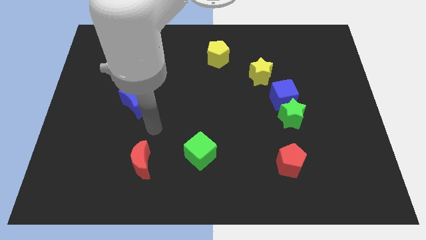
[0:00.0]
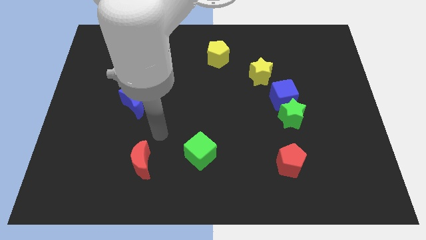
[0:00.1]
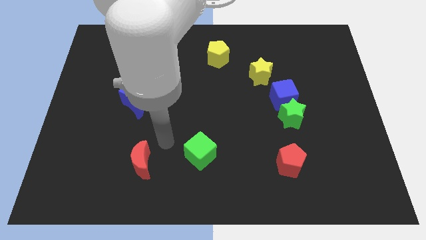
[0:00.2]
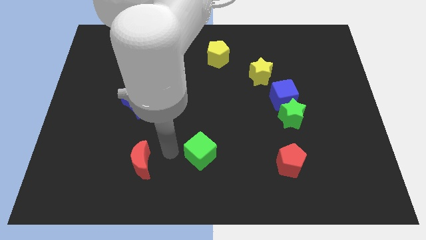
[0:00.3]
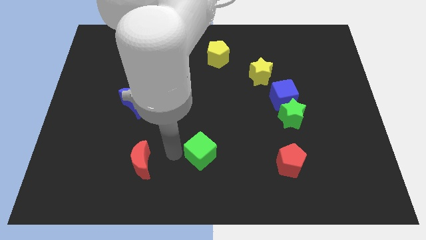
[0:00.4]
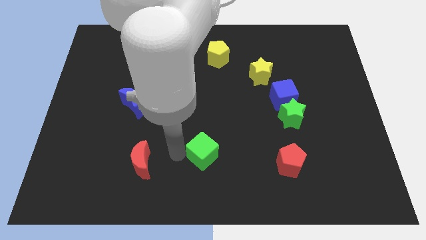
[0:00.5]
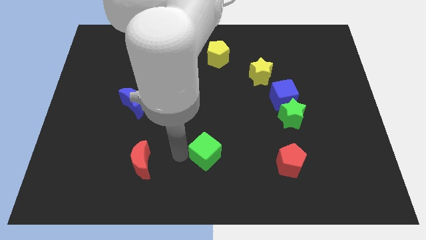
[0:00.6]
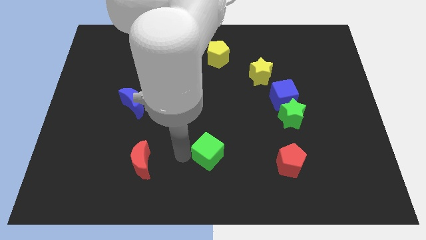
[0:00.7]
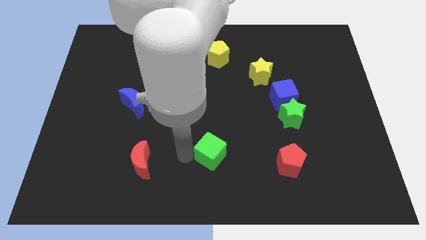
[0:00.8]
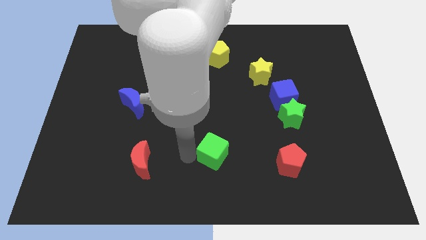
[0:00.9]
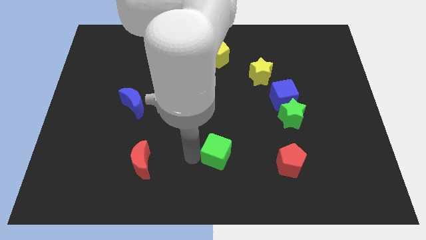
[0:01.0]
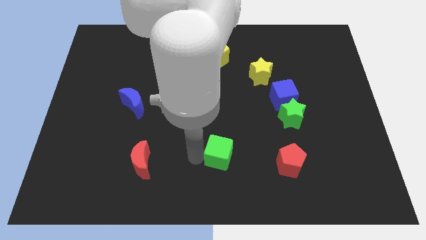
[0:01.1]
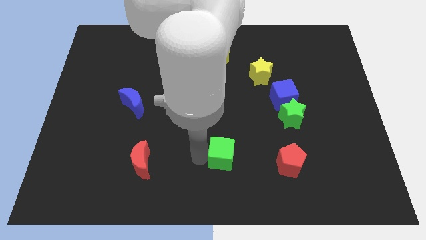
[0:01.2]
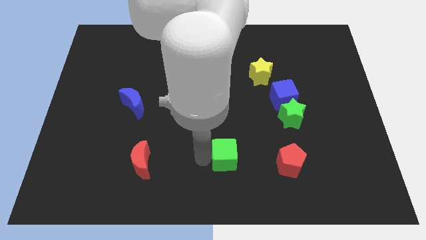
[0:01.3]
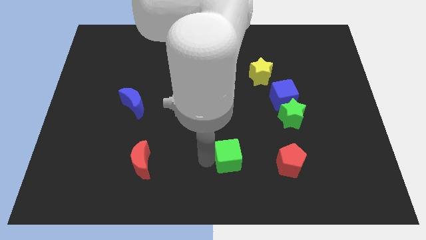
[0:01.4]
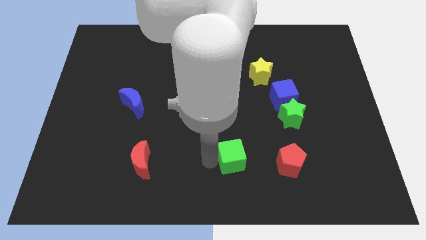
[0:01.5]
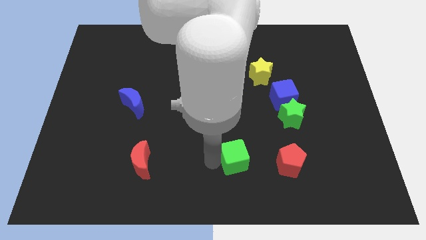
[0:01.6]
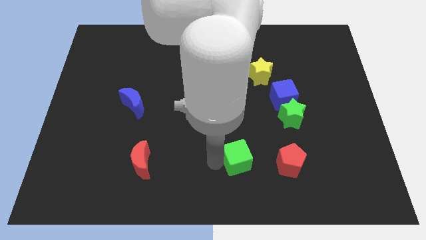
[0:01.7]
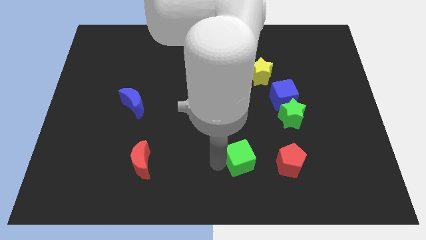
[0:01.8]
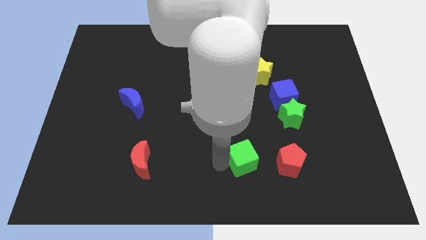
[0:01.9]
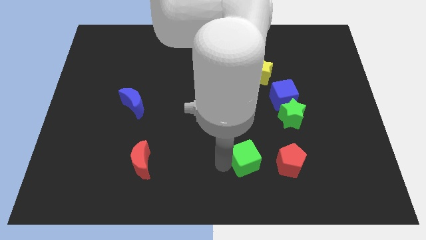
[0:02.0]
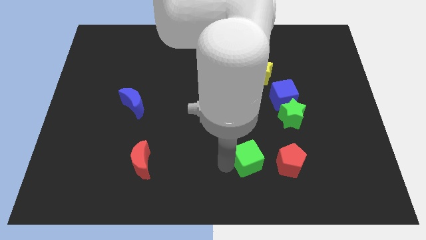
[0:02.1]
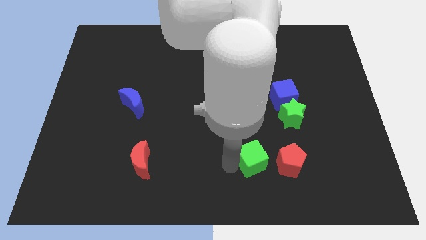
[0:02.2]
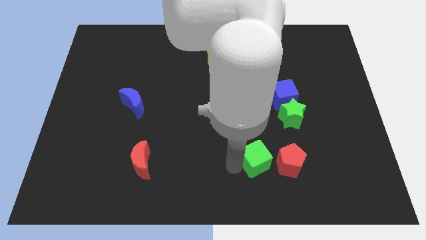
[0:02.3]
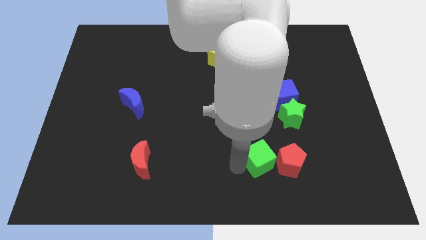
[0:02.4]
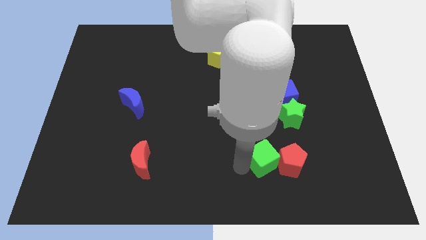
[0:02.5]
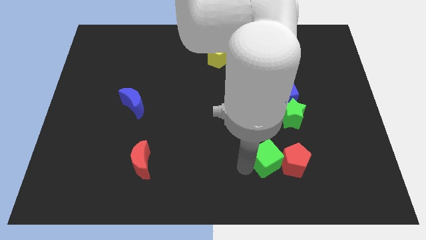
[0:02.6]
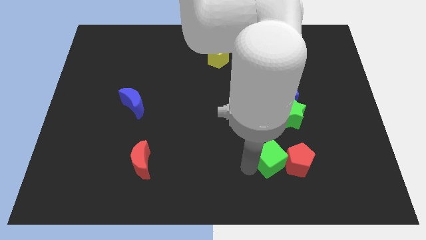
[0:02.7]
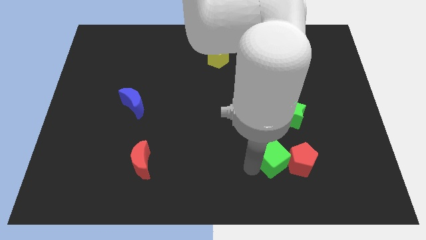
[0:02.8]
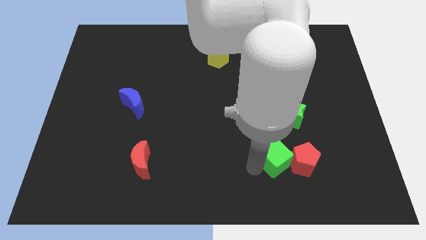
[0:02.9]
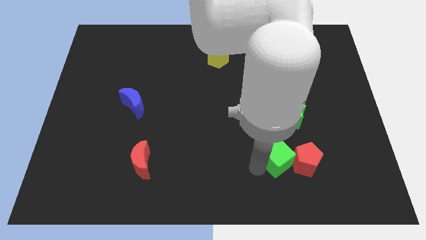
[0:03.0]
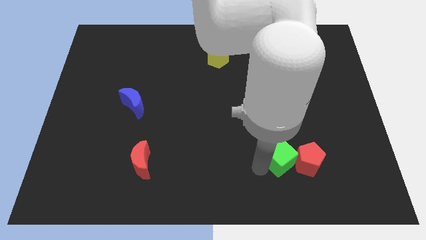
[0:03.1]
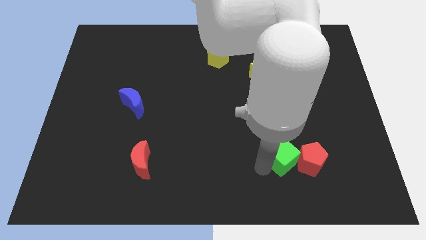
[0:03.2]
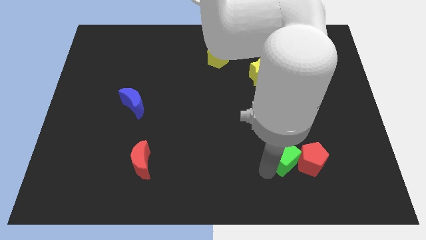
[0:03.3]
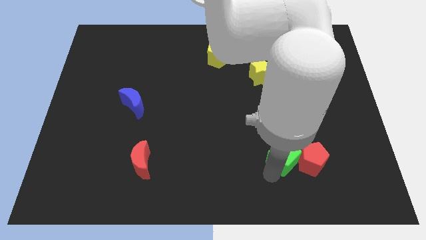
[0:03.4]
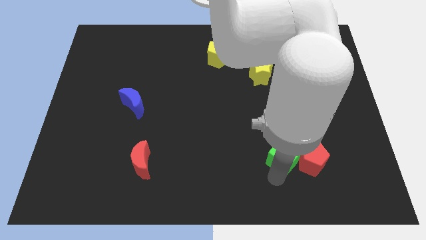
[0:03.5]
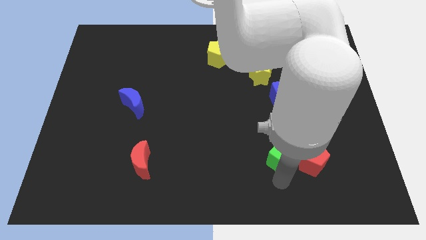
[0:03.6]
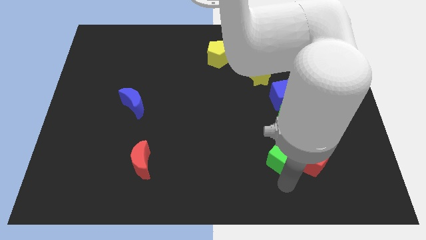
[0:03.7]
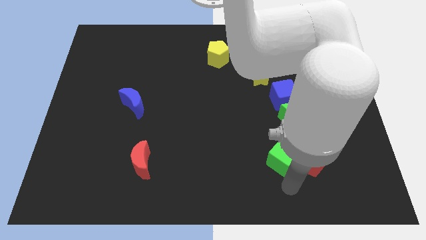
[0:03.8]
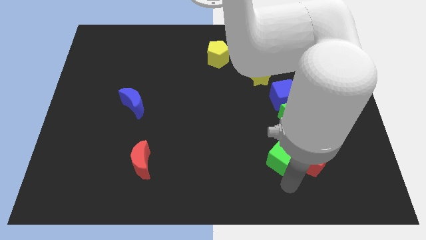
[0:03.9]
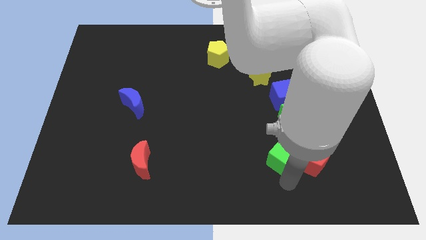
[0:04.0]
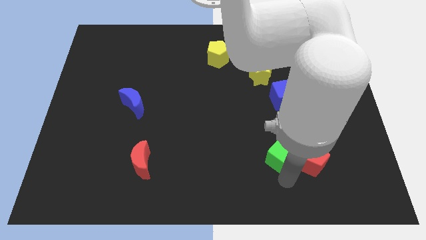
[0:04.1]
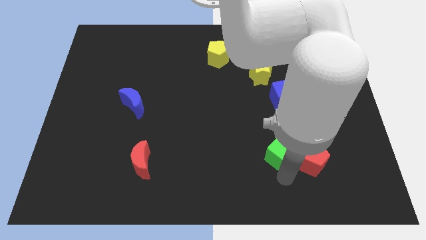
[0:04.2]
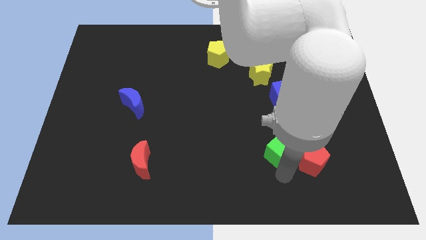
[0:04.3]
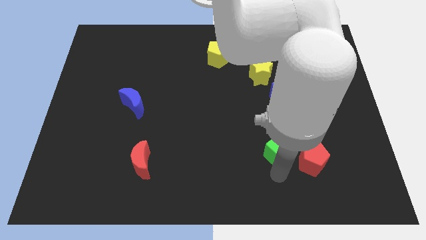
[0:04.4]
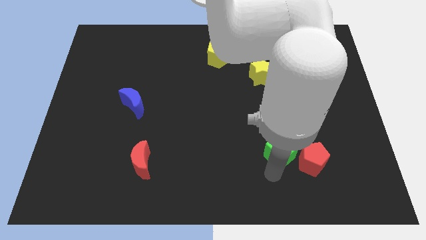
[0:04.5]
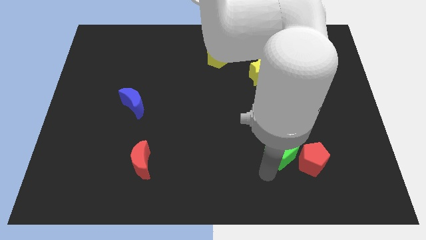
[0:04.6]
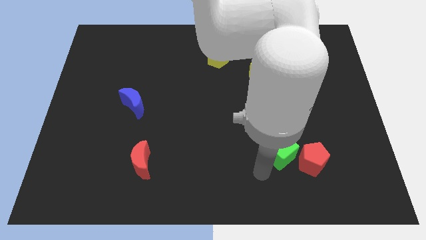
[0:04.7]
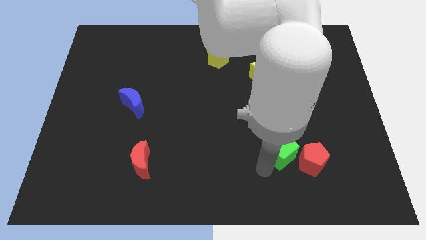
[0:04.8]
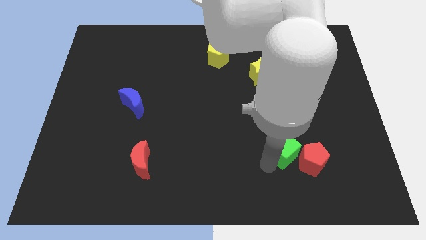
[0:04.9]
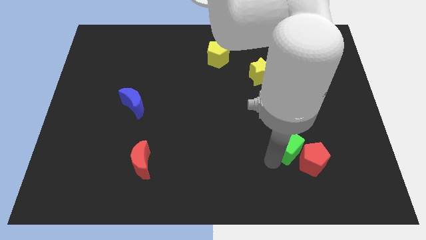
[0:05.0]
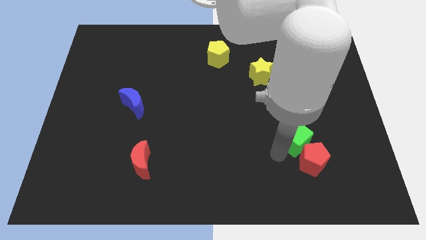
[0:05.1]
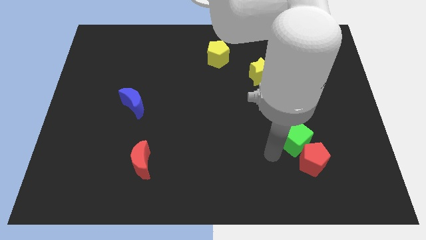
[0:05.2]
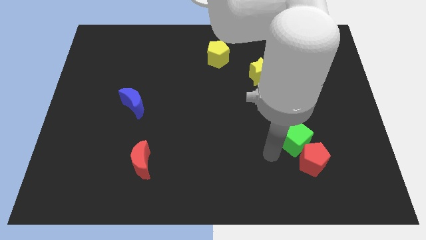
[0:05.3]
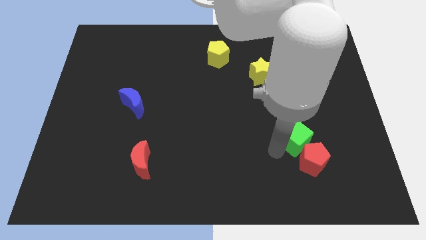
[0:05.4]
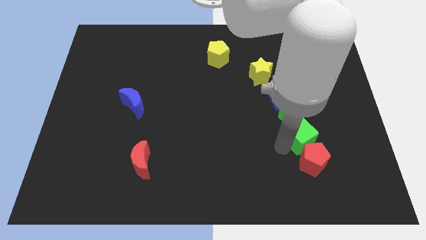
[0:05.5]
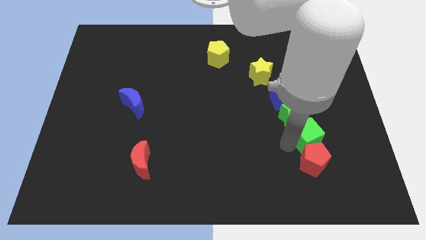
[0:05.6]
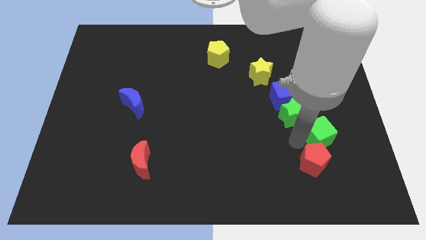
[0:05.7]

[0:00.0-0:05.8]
move the green cube right of the green star
